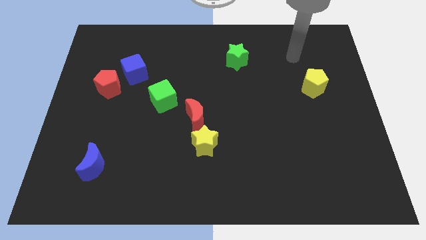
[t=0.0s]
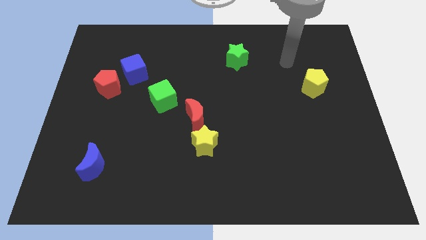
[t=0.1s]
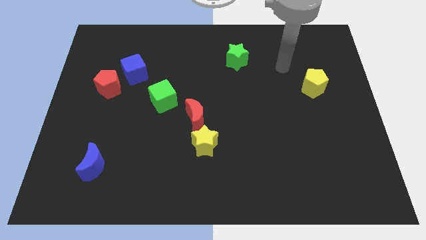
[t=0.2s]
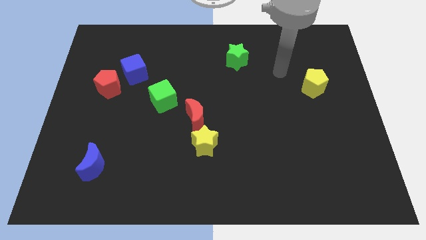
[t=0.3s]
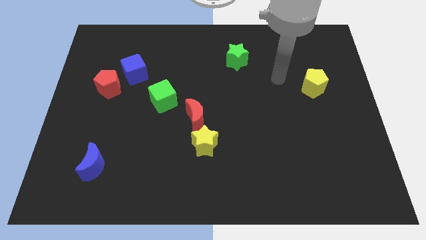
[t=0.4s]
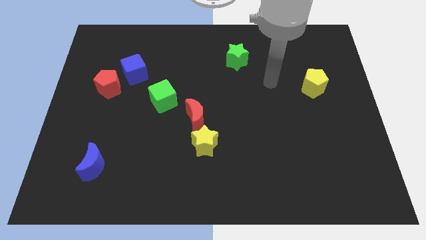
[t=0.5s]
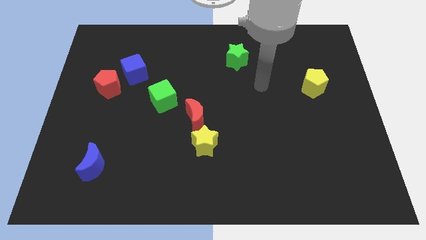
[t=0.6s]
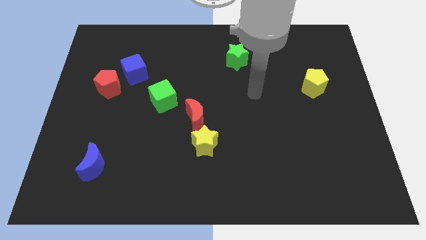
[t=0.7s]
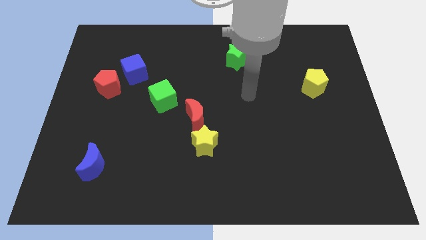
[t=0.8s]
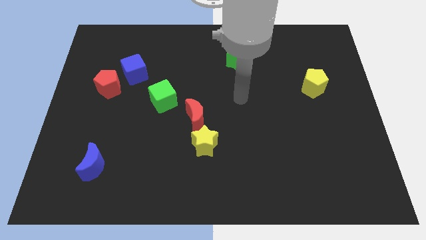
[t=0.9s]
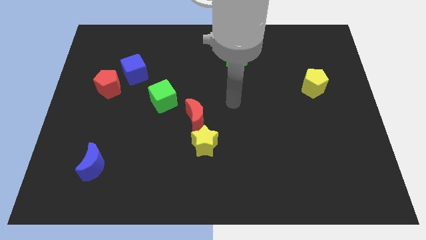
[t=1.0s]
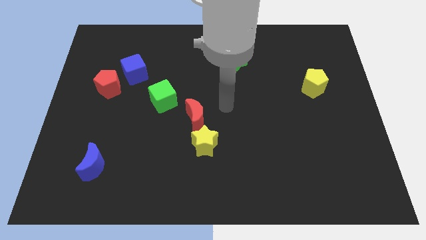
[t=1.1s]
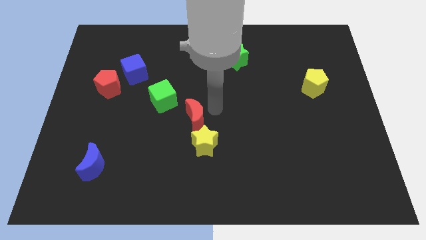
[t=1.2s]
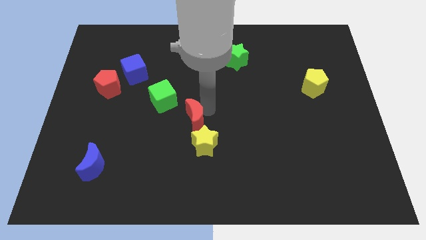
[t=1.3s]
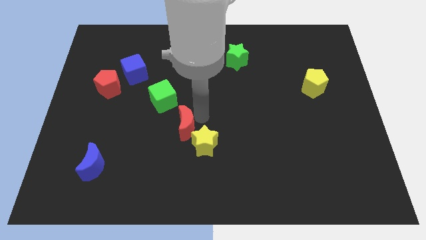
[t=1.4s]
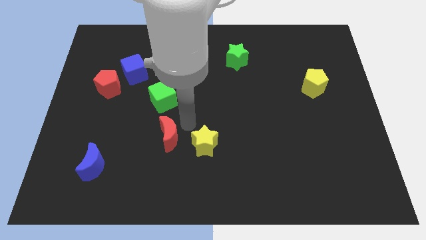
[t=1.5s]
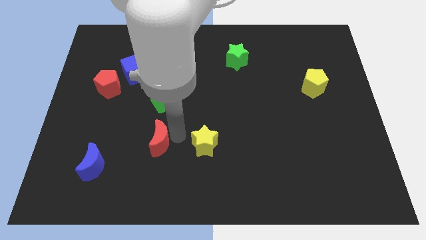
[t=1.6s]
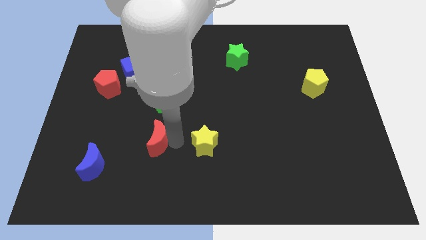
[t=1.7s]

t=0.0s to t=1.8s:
pull the yellow star apart from the red moon

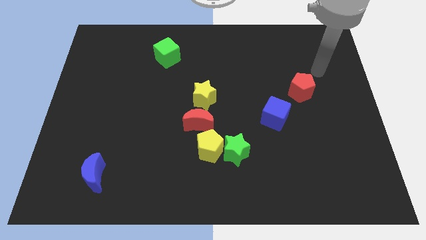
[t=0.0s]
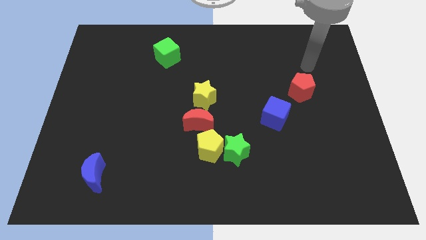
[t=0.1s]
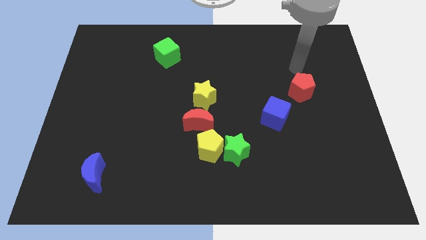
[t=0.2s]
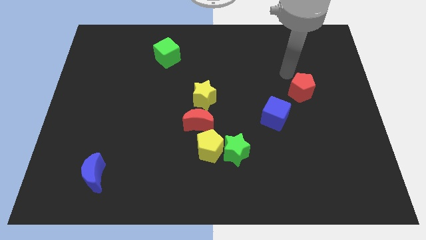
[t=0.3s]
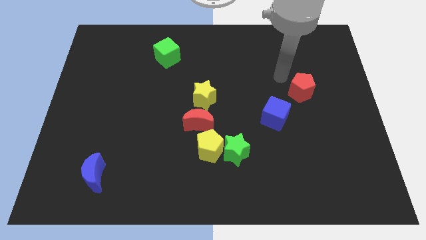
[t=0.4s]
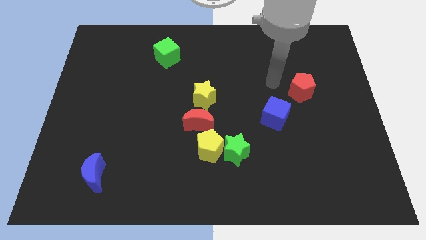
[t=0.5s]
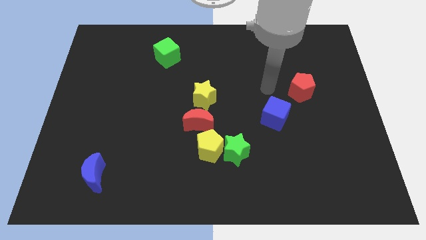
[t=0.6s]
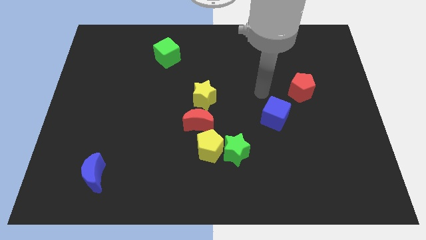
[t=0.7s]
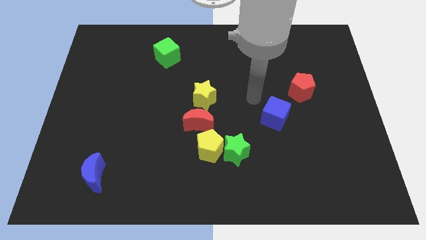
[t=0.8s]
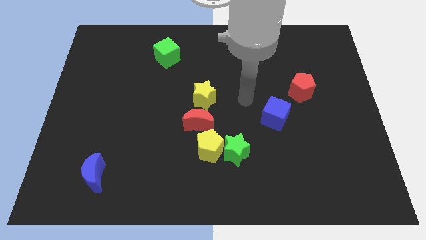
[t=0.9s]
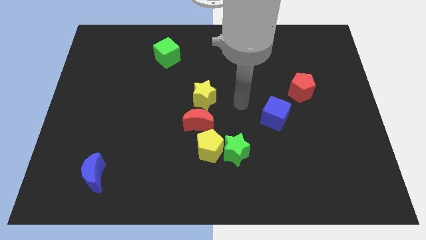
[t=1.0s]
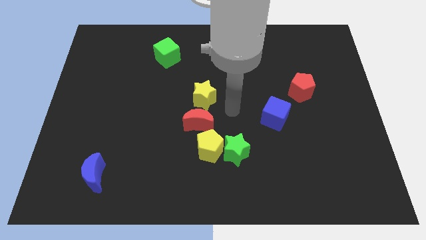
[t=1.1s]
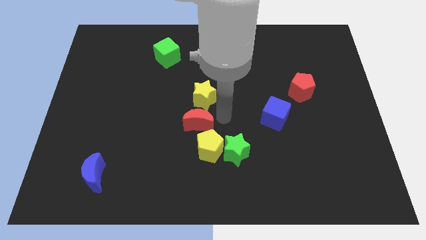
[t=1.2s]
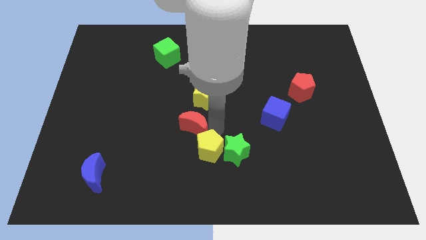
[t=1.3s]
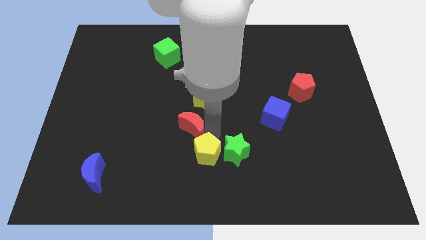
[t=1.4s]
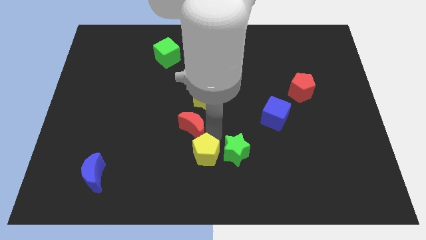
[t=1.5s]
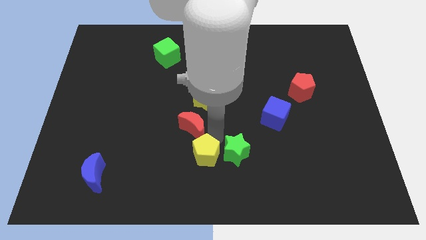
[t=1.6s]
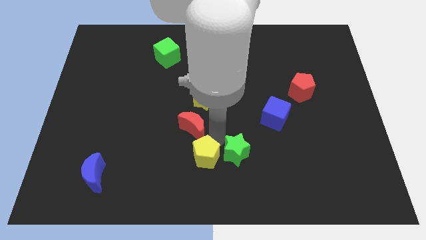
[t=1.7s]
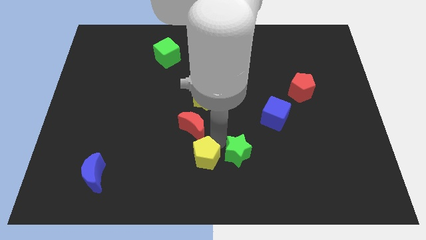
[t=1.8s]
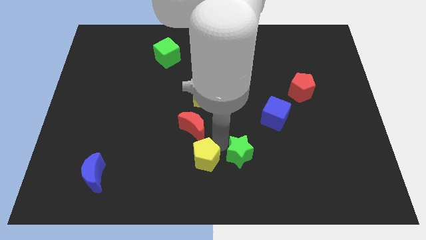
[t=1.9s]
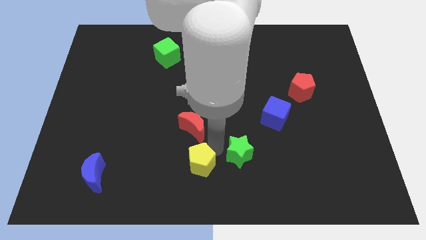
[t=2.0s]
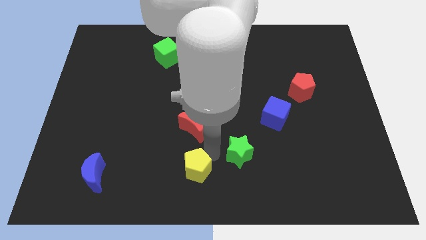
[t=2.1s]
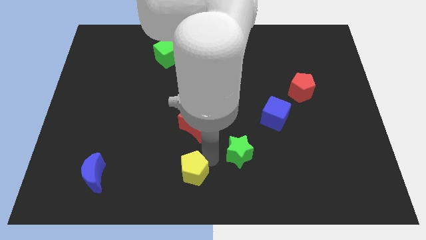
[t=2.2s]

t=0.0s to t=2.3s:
move the green star away from the yellow pentagon

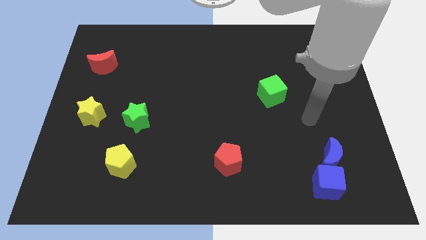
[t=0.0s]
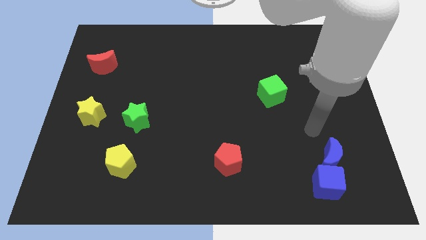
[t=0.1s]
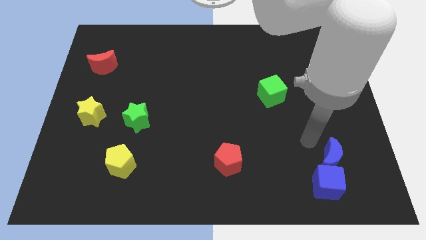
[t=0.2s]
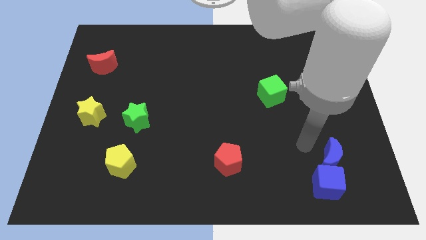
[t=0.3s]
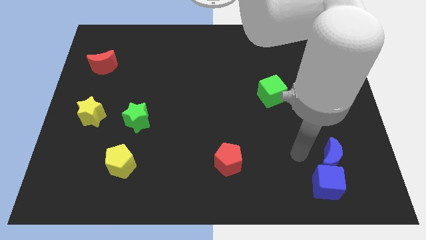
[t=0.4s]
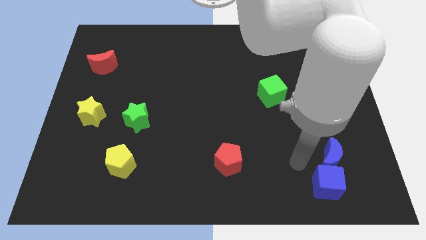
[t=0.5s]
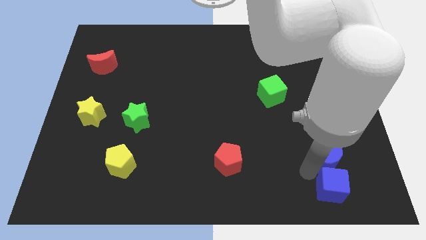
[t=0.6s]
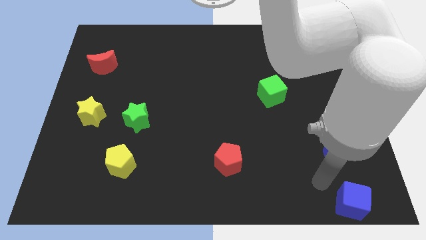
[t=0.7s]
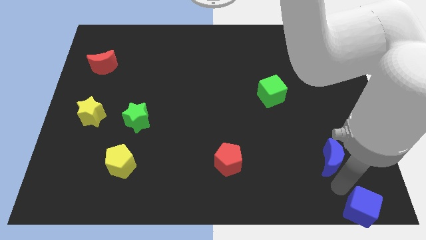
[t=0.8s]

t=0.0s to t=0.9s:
separate the blue moon from the blue cube

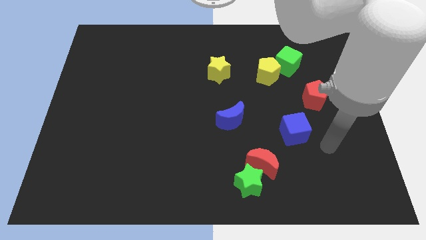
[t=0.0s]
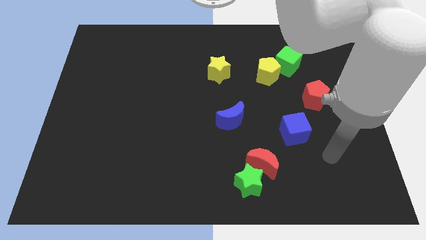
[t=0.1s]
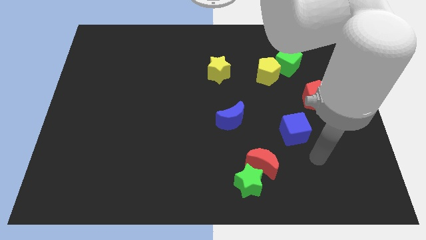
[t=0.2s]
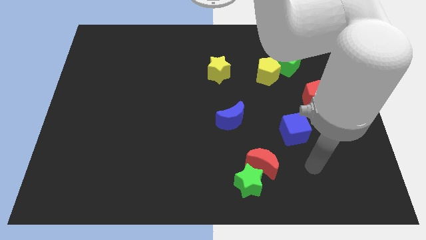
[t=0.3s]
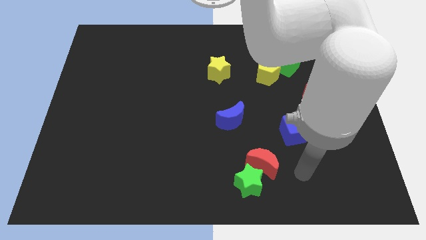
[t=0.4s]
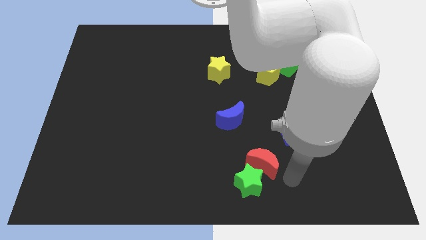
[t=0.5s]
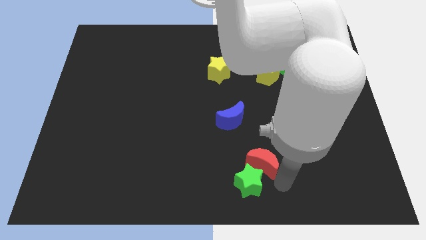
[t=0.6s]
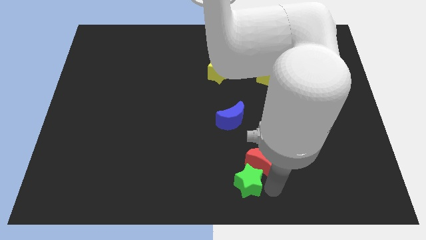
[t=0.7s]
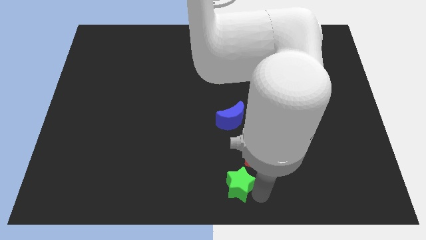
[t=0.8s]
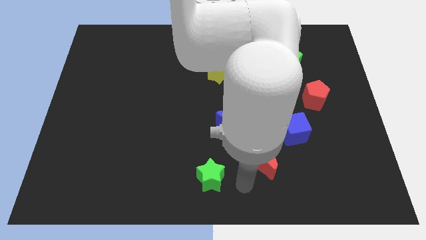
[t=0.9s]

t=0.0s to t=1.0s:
move the red moon away from the green star

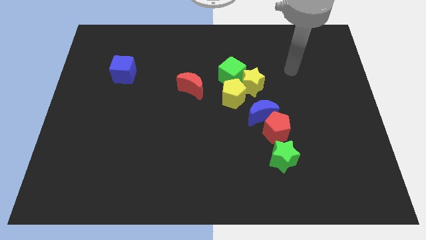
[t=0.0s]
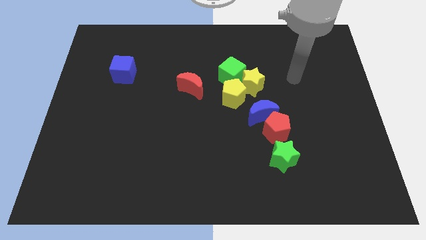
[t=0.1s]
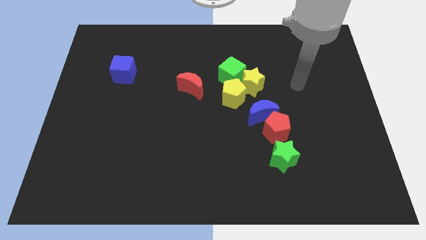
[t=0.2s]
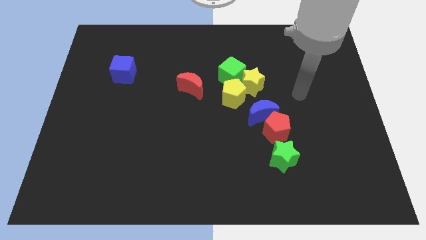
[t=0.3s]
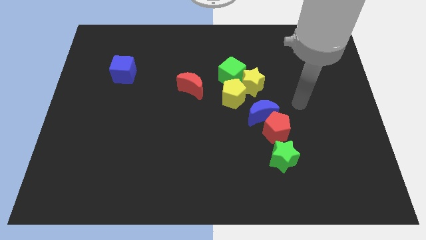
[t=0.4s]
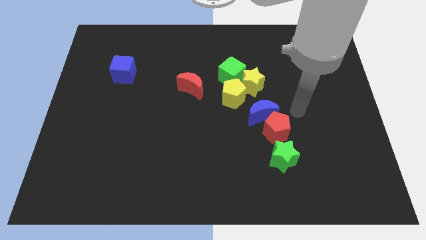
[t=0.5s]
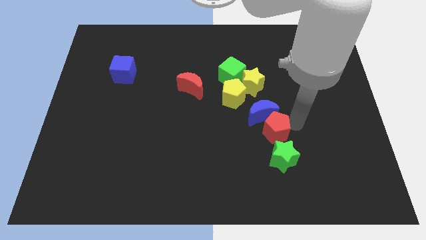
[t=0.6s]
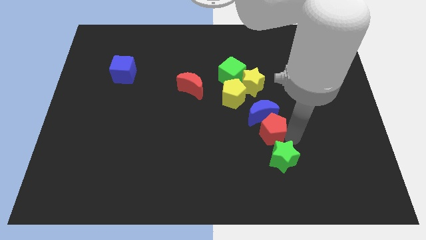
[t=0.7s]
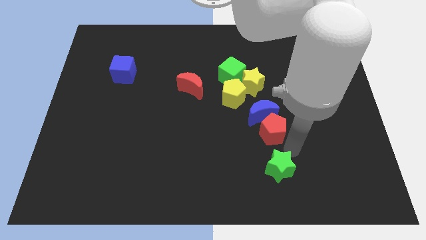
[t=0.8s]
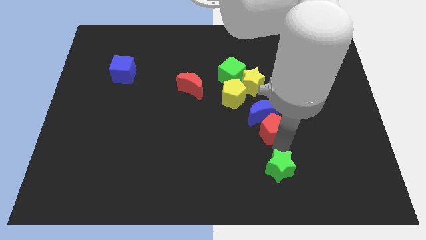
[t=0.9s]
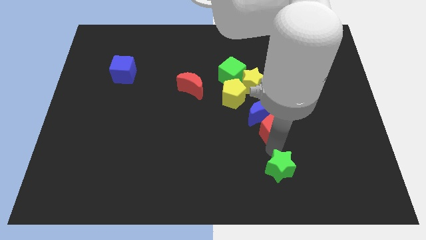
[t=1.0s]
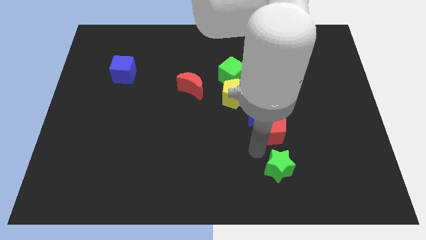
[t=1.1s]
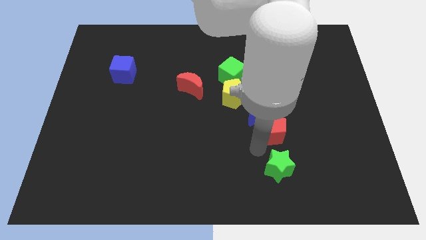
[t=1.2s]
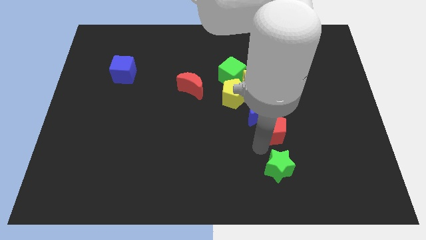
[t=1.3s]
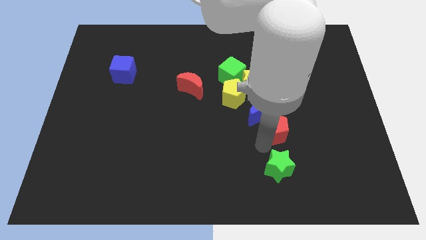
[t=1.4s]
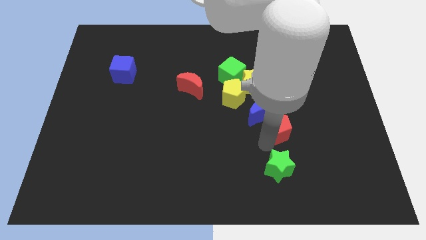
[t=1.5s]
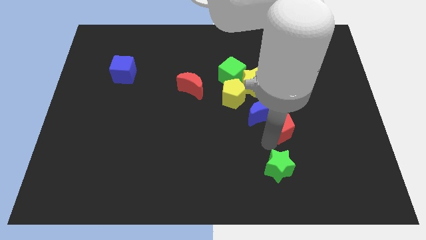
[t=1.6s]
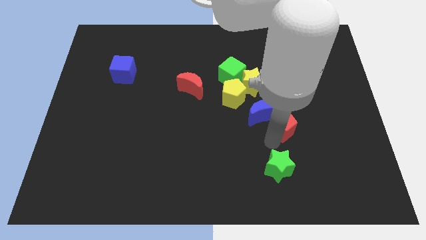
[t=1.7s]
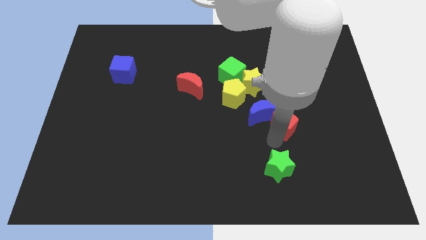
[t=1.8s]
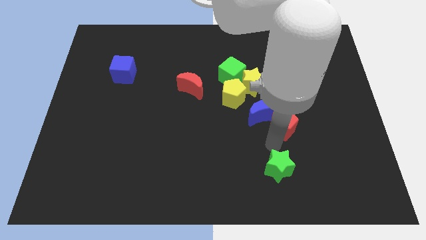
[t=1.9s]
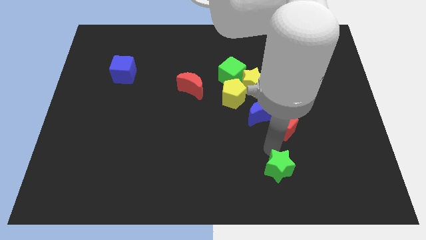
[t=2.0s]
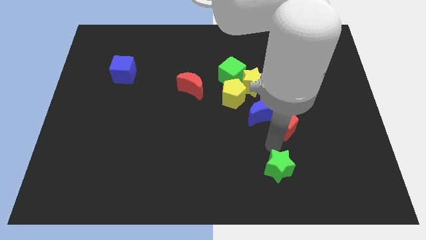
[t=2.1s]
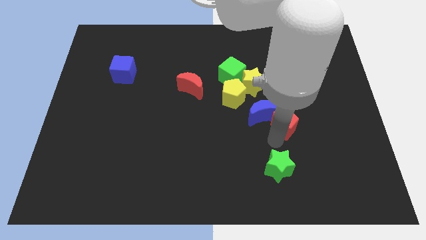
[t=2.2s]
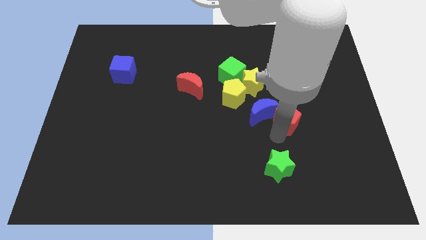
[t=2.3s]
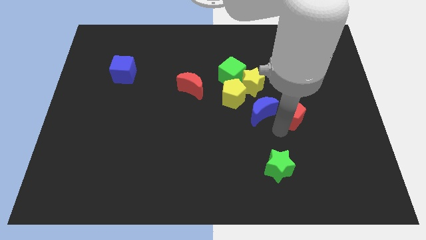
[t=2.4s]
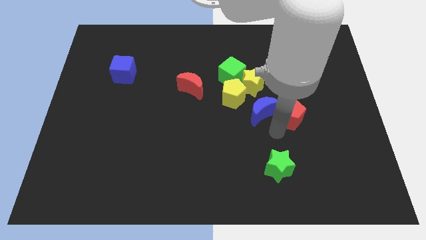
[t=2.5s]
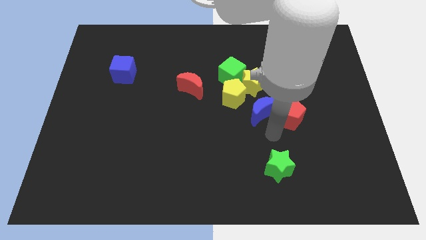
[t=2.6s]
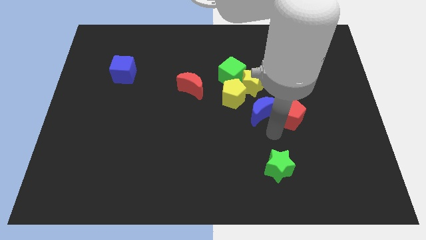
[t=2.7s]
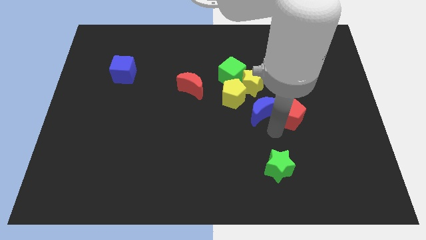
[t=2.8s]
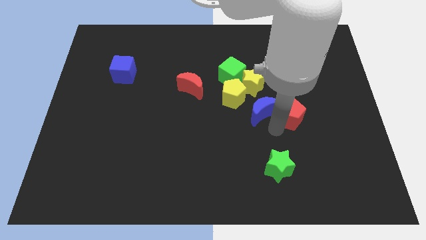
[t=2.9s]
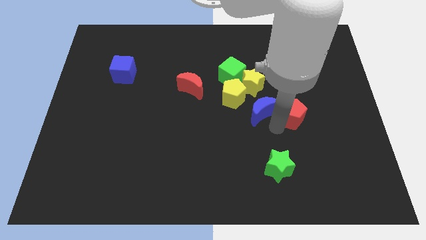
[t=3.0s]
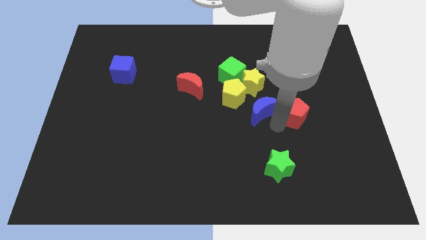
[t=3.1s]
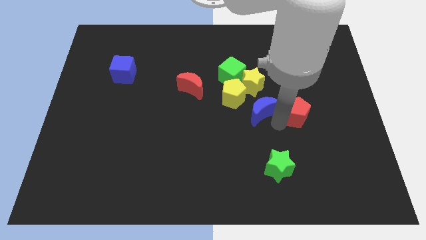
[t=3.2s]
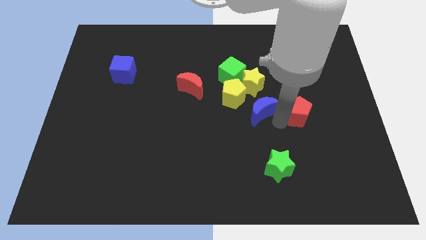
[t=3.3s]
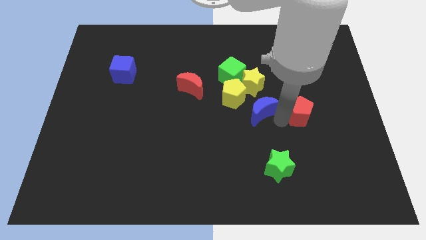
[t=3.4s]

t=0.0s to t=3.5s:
move the red pentagon away from the blue moon and green star
